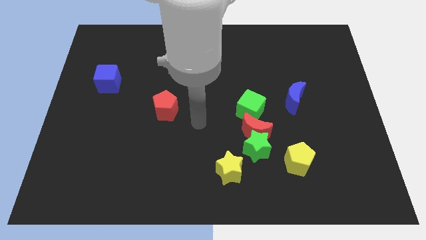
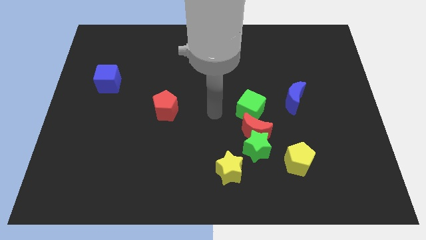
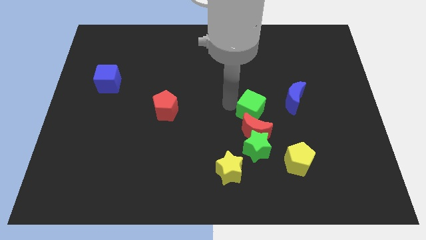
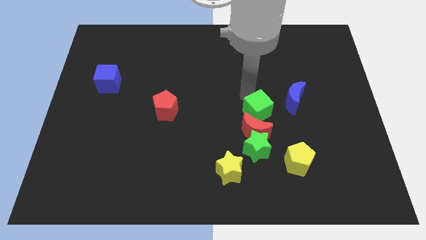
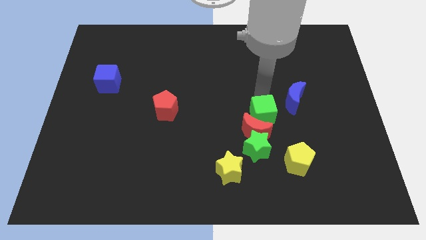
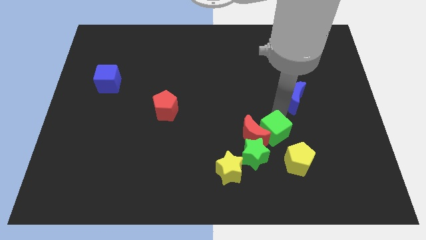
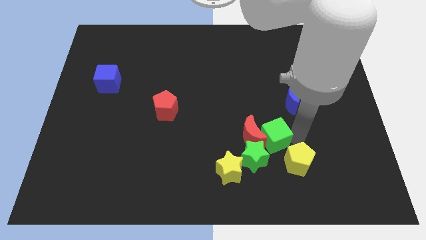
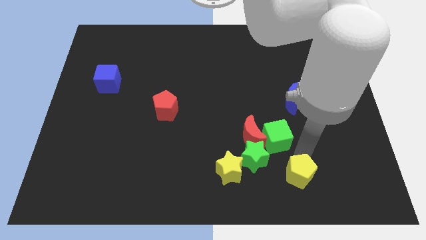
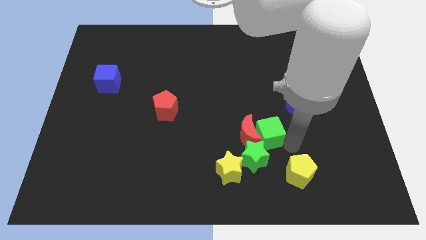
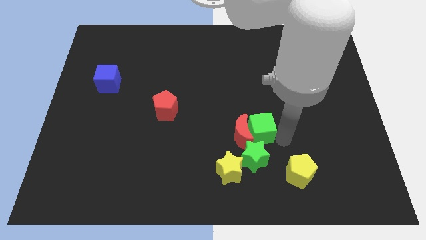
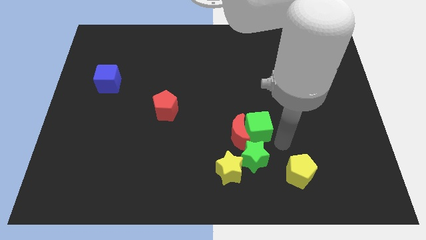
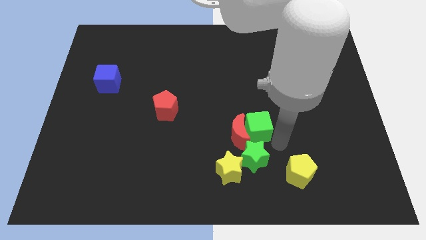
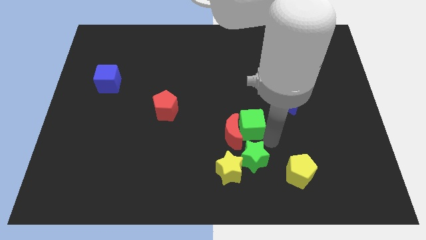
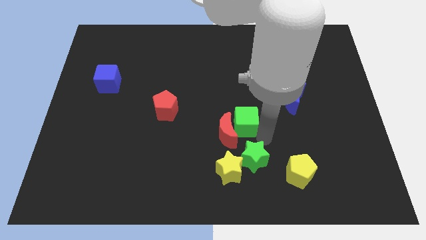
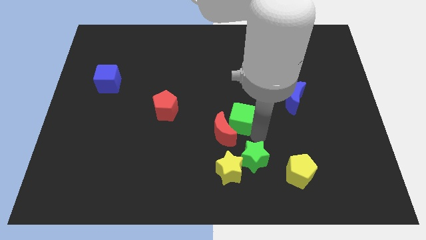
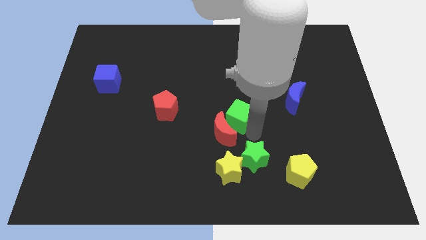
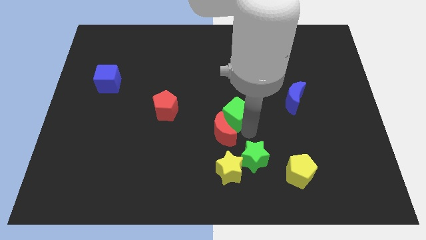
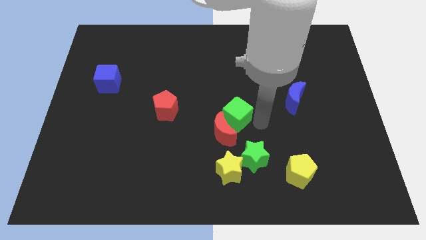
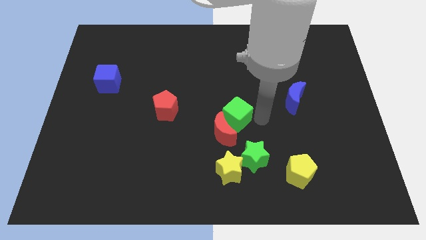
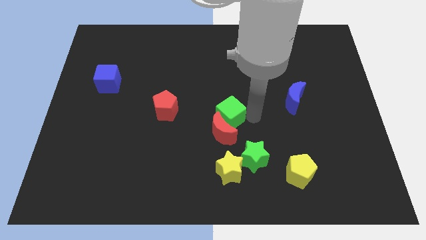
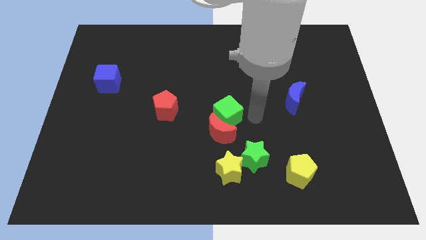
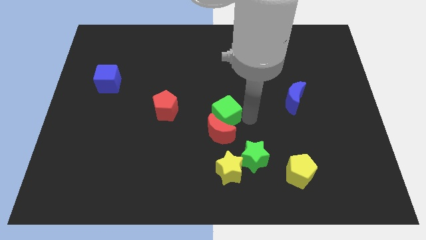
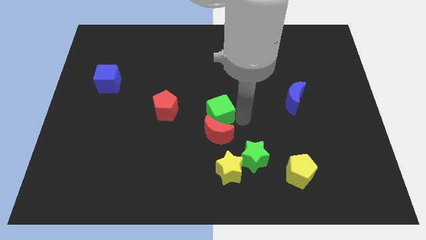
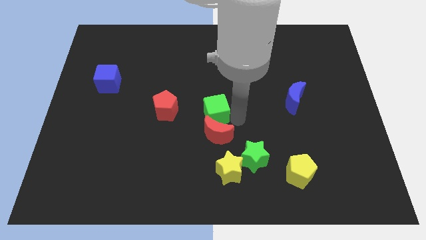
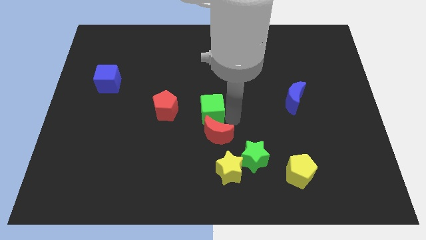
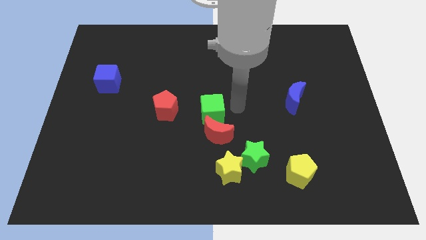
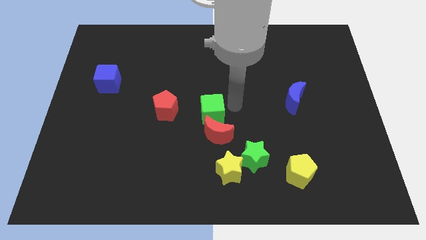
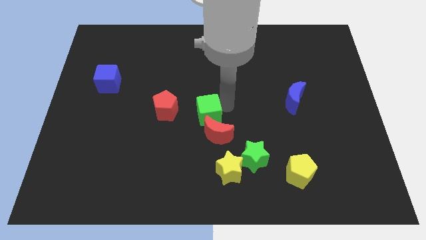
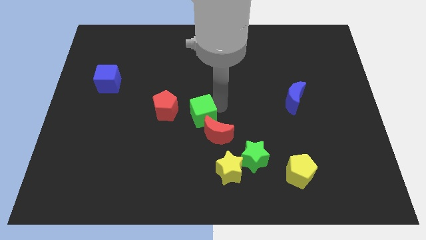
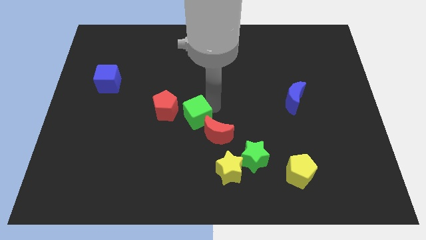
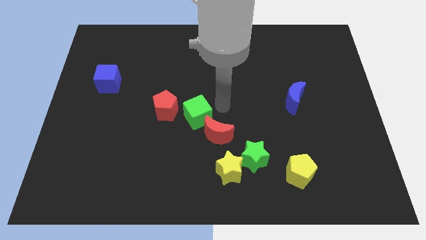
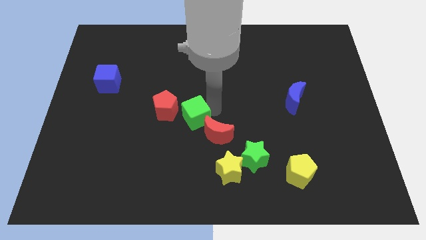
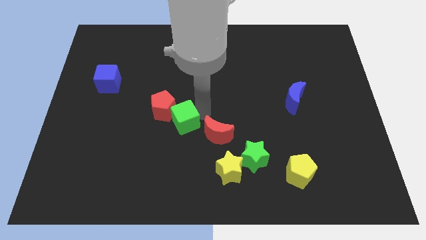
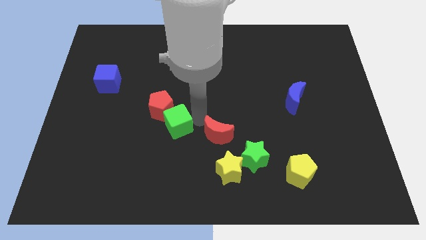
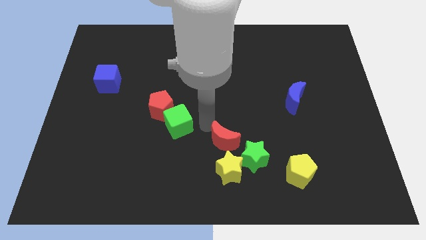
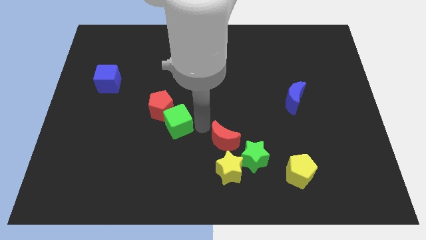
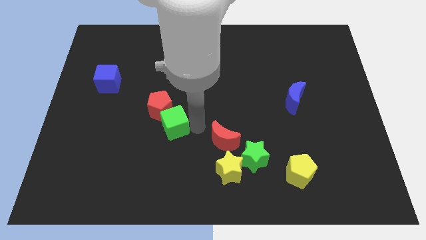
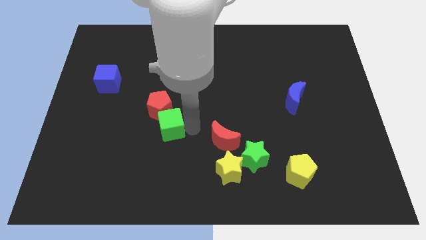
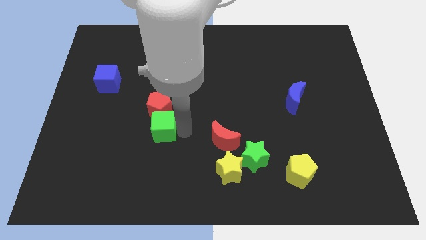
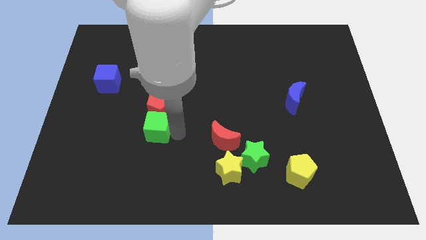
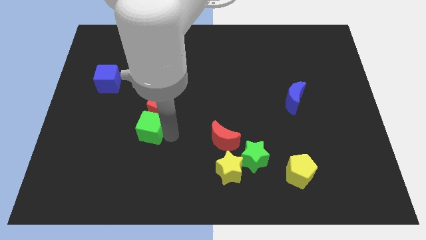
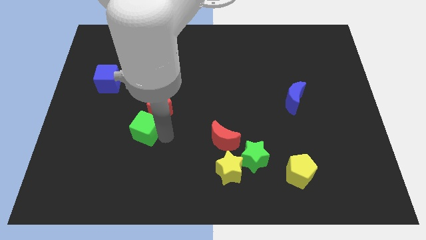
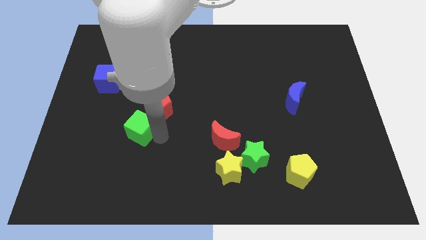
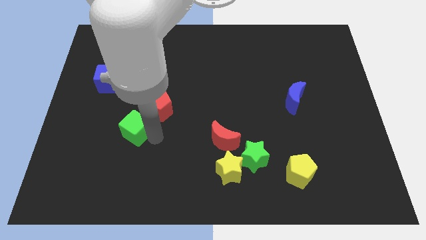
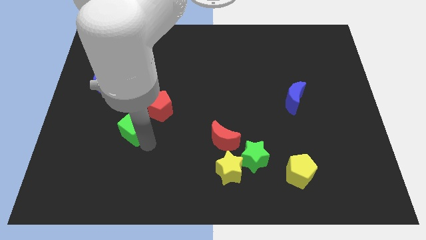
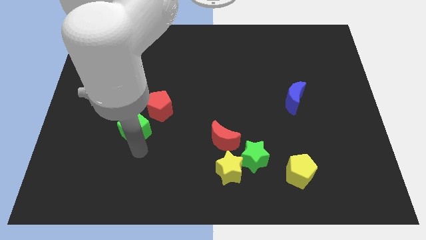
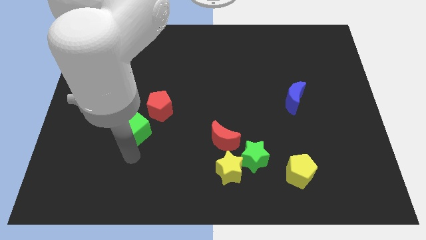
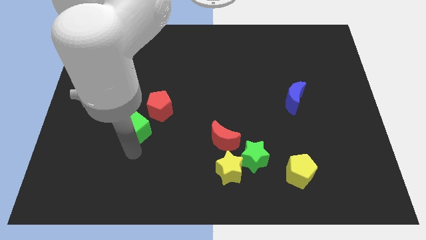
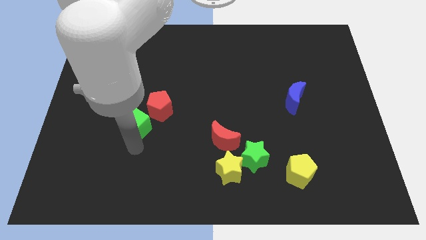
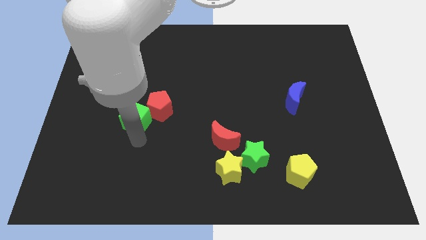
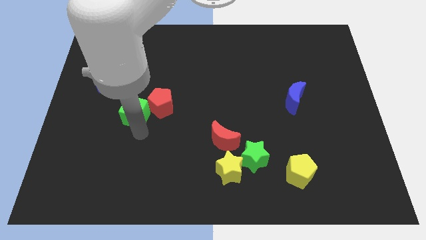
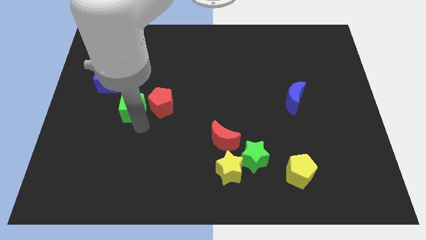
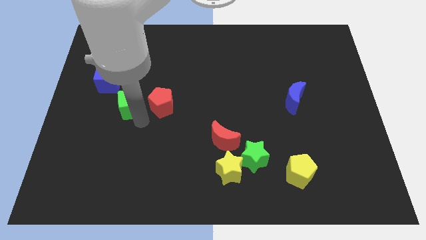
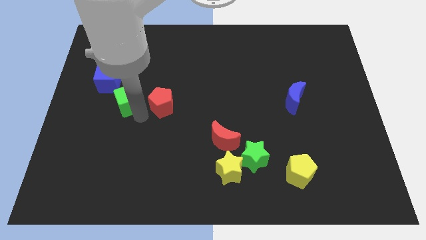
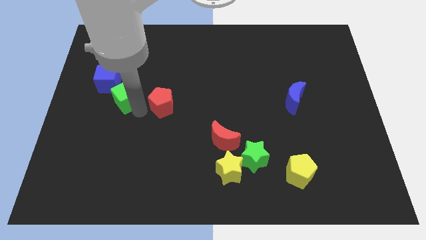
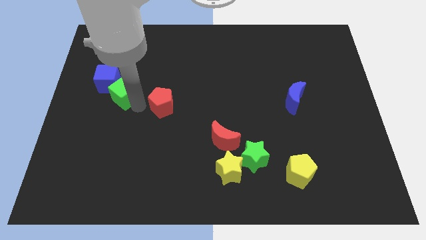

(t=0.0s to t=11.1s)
slide the green cube below the blue cube

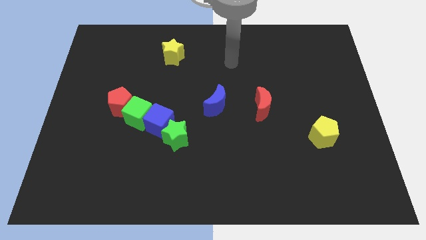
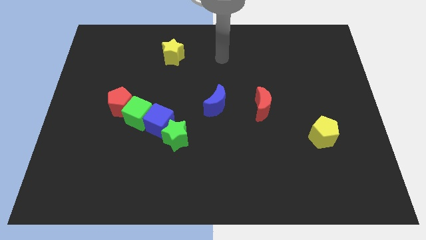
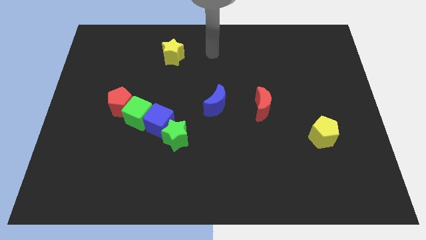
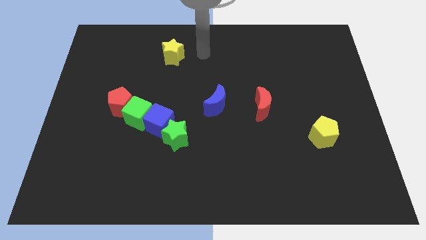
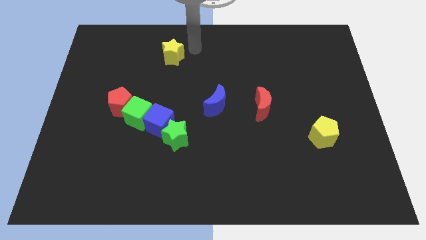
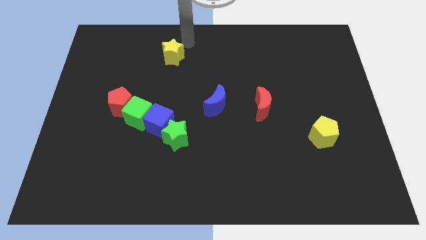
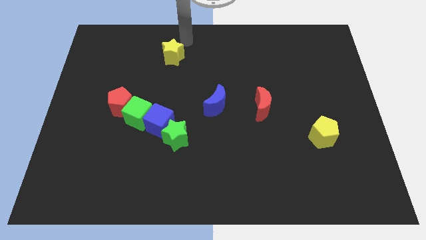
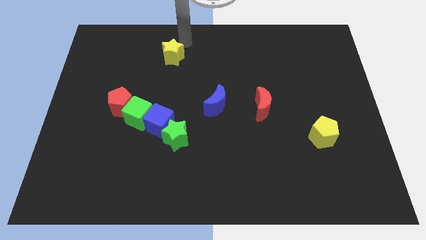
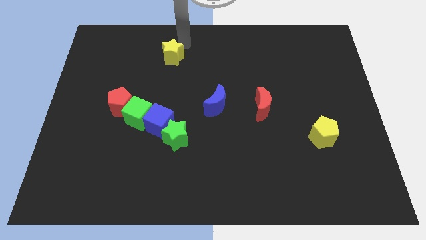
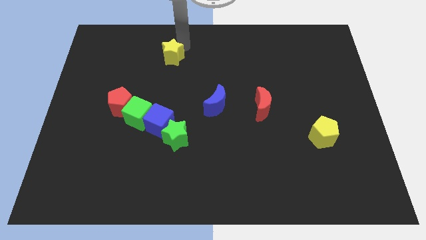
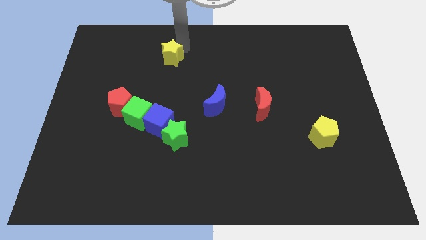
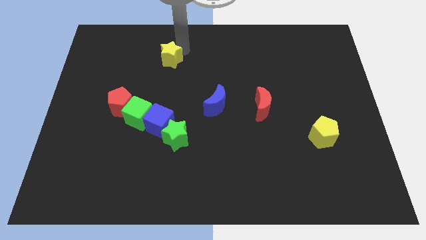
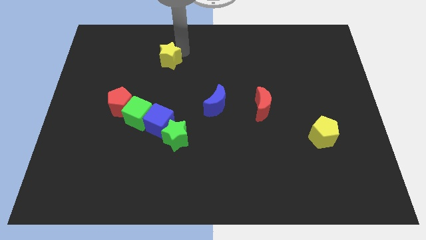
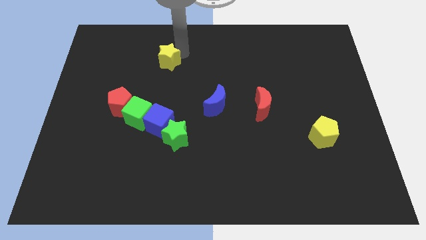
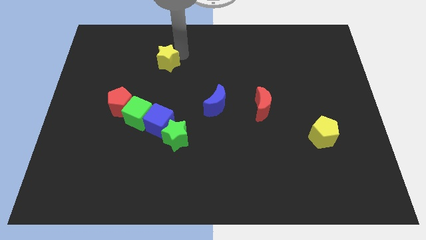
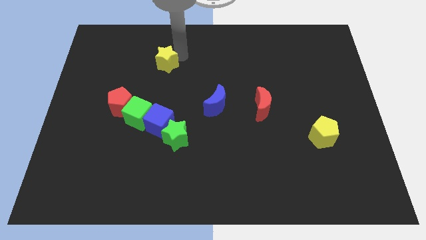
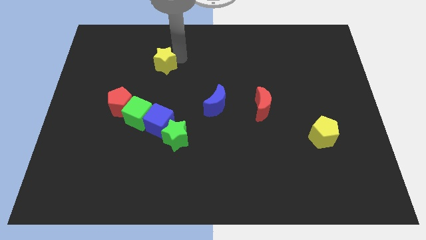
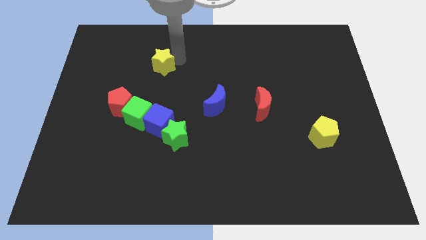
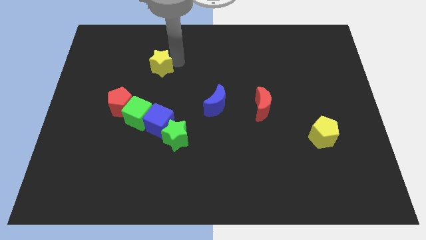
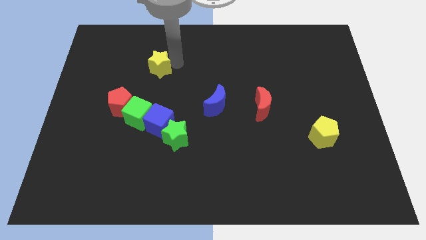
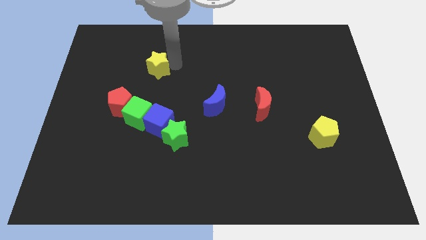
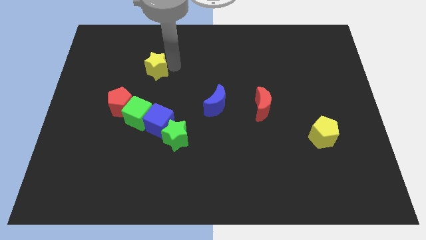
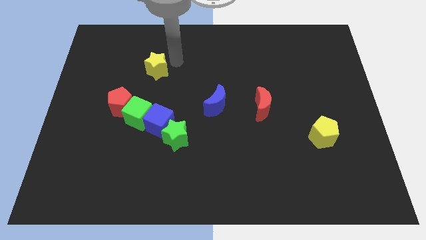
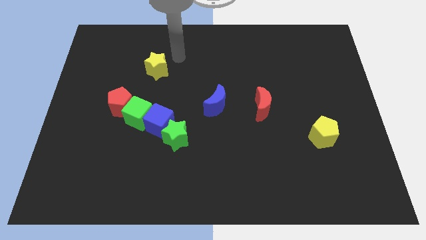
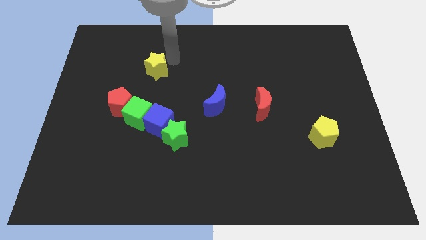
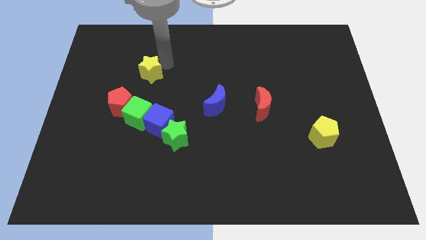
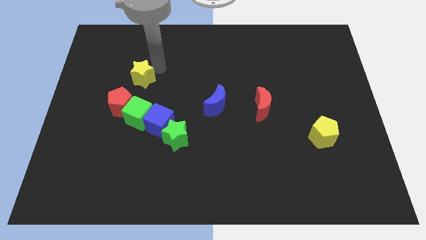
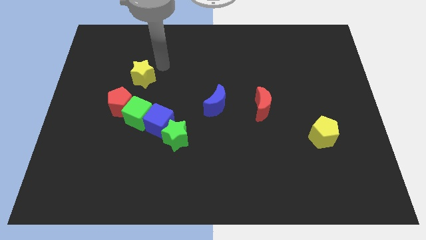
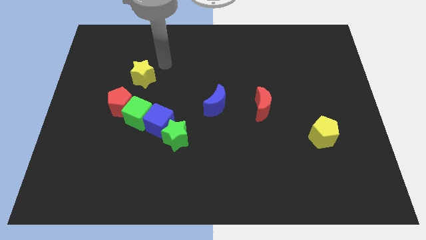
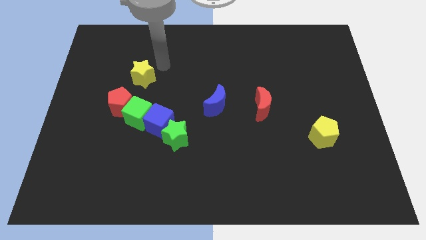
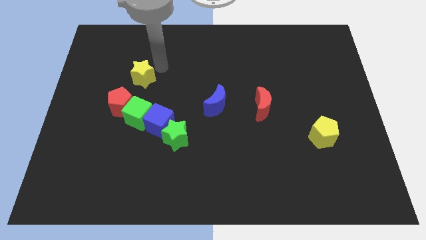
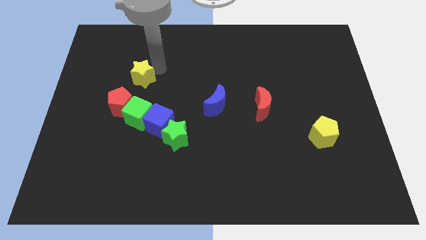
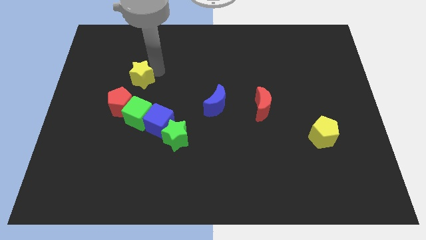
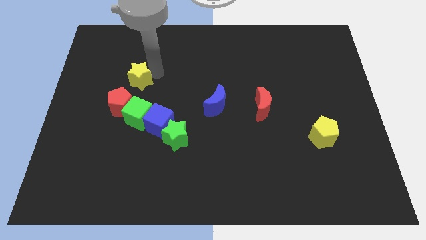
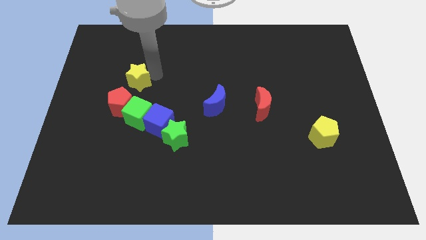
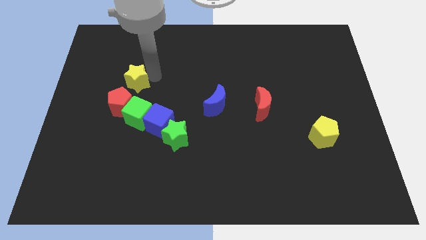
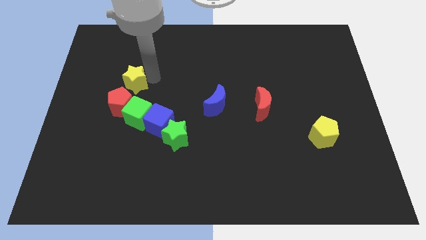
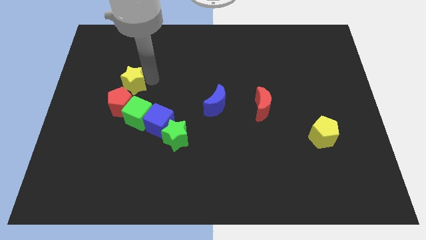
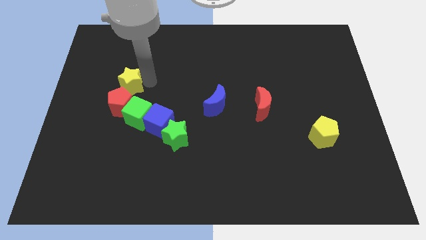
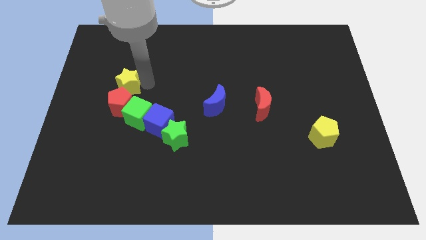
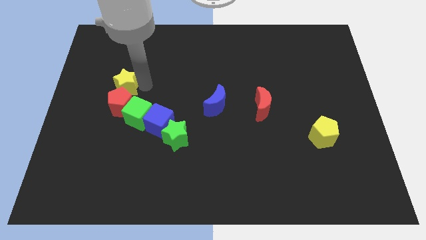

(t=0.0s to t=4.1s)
push the yellow star diagonally up and to the left of the red pentagon
